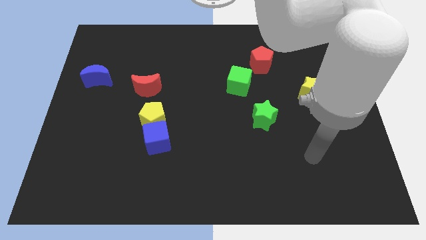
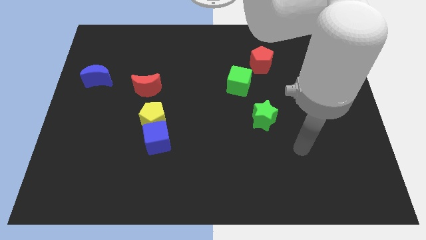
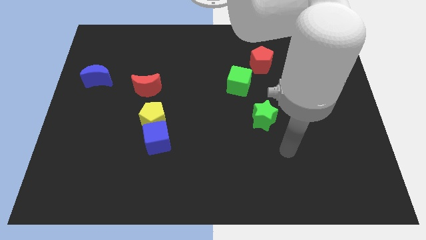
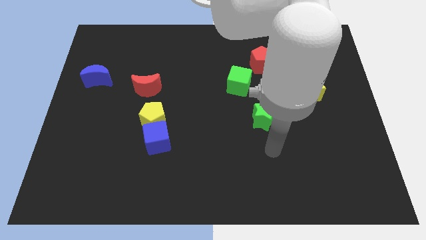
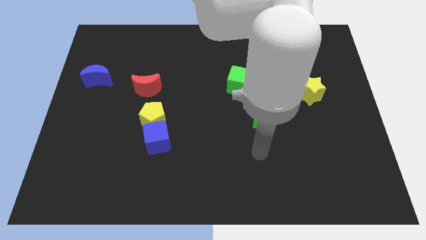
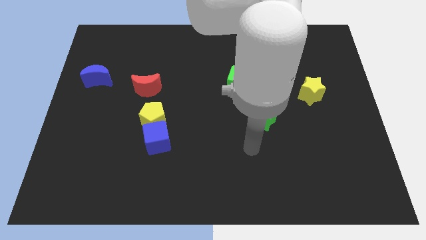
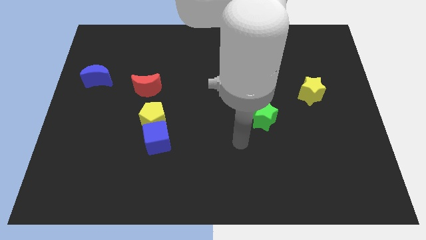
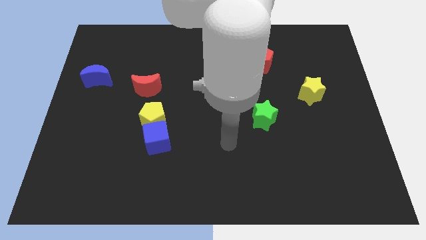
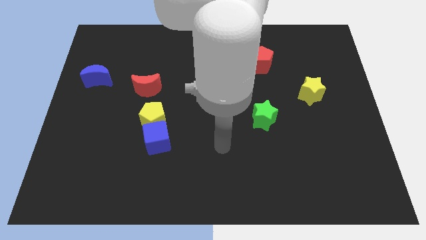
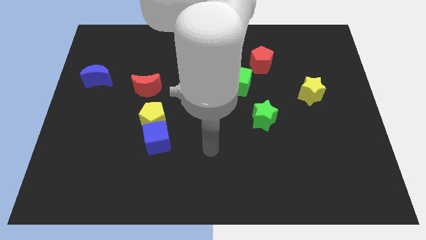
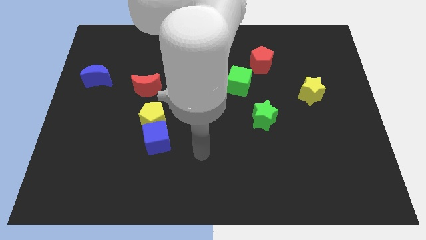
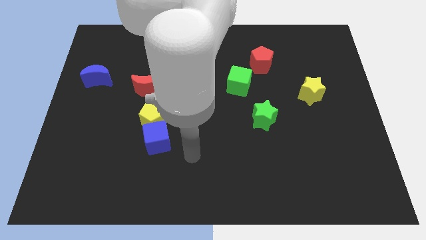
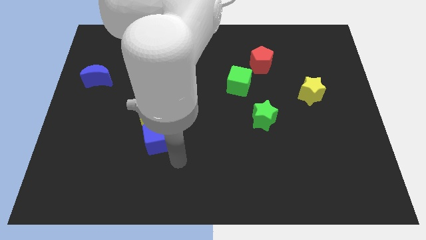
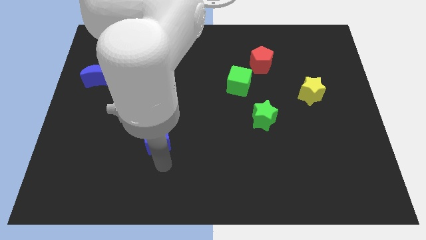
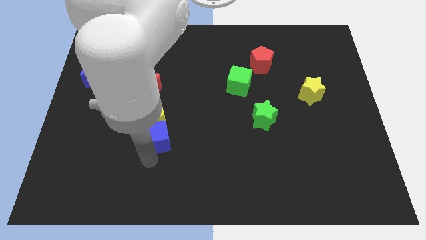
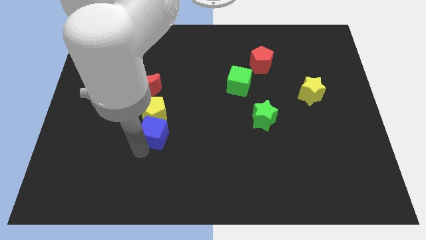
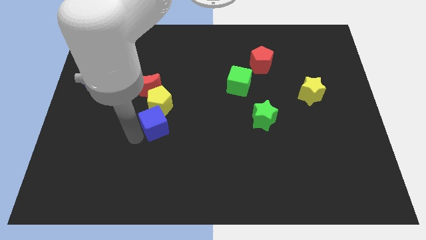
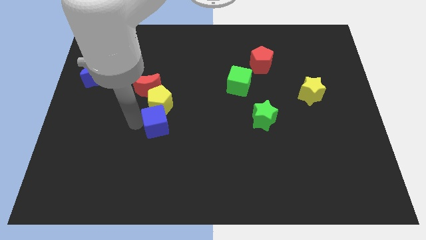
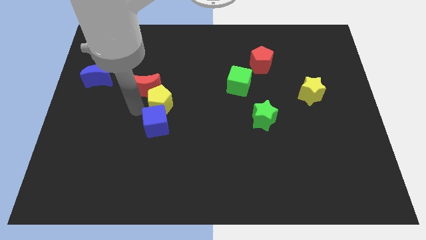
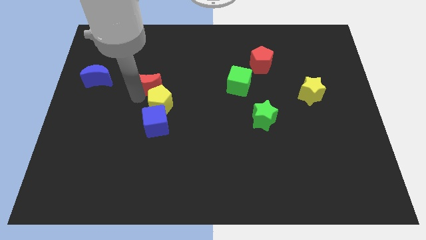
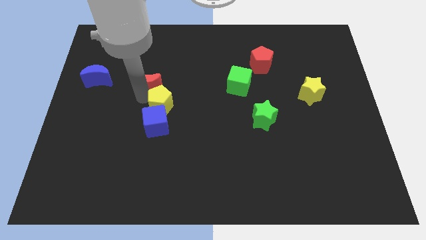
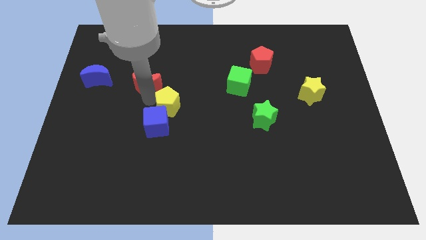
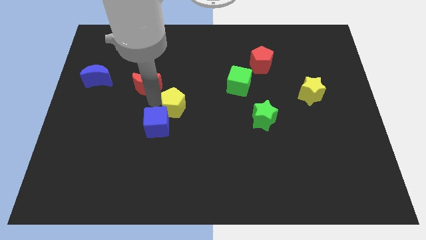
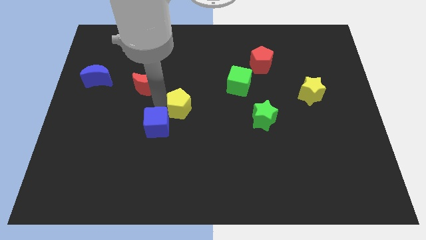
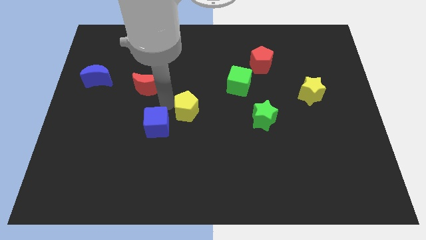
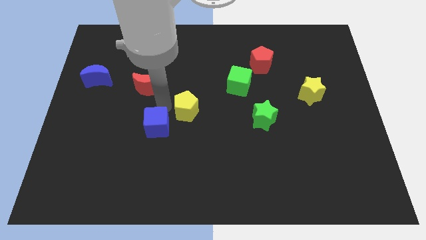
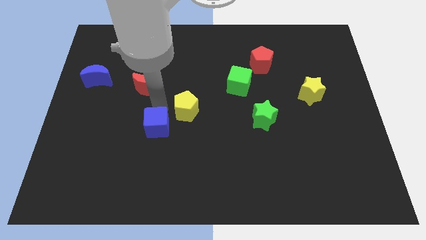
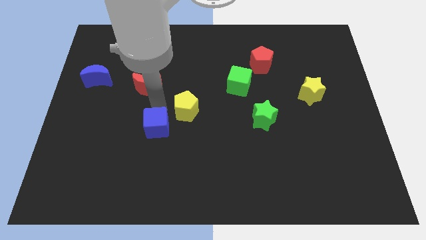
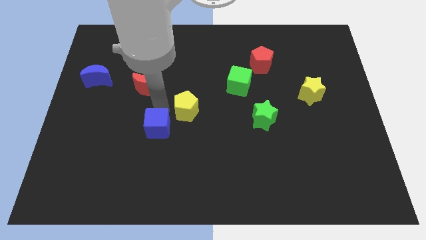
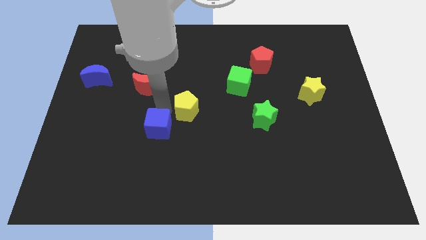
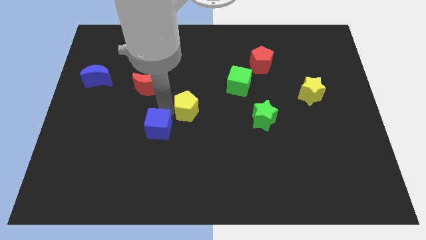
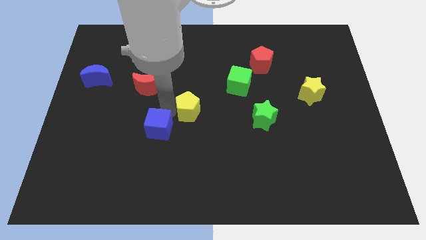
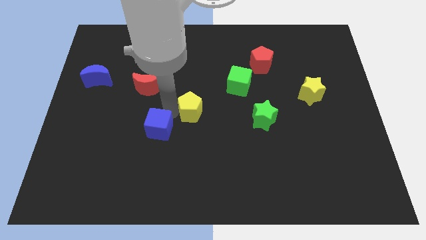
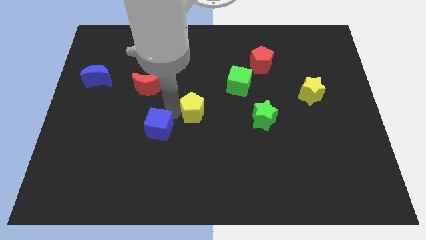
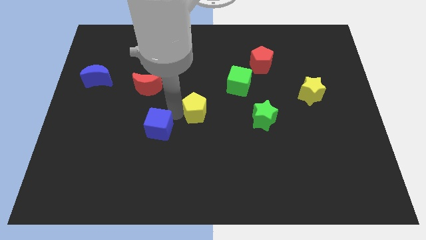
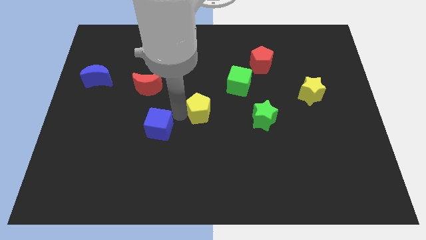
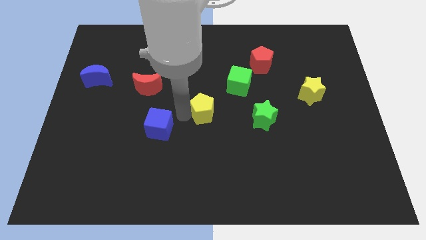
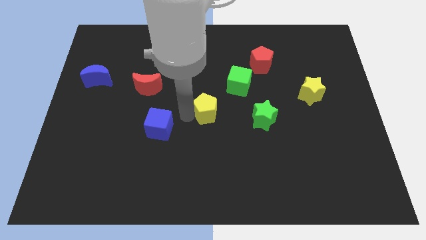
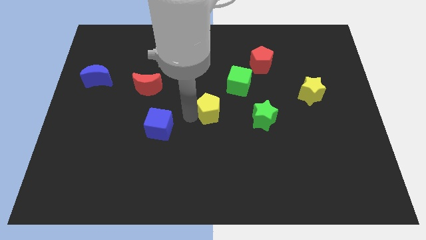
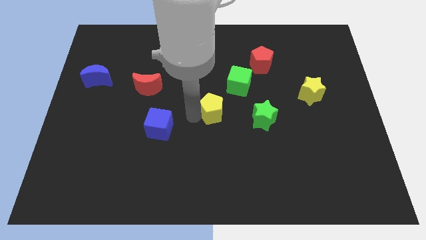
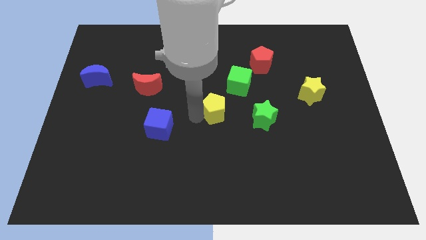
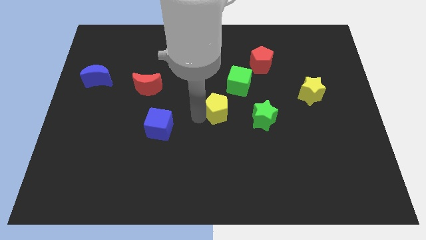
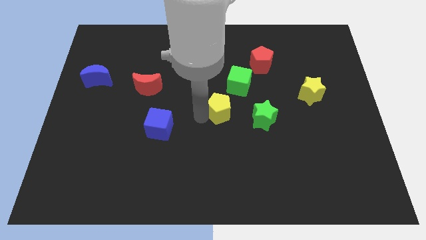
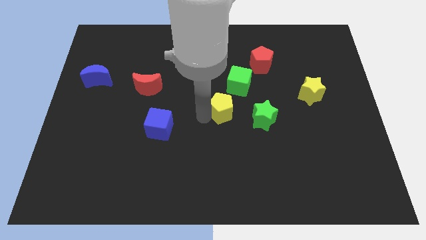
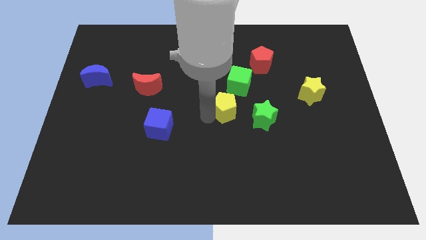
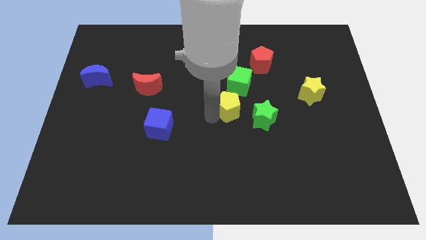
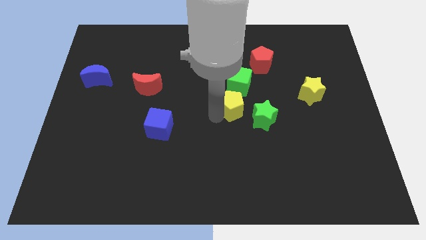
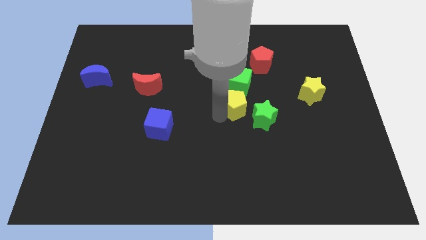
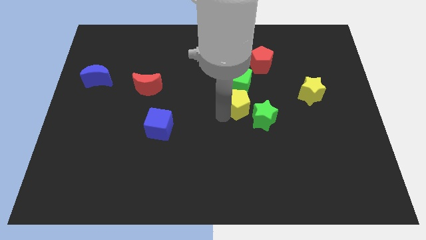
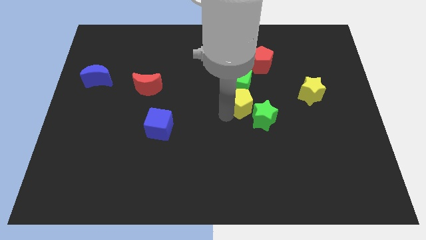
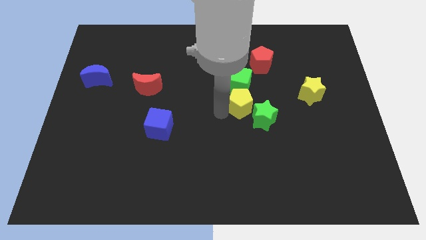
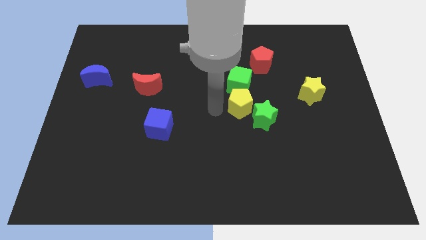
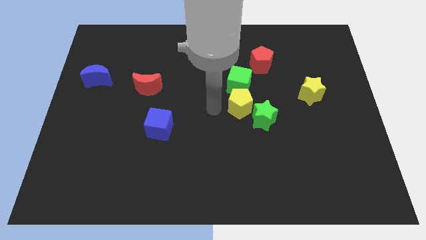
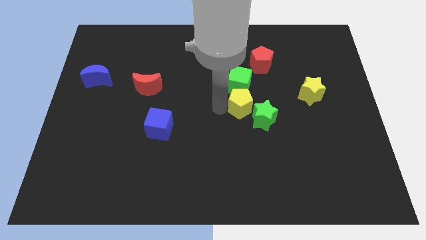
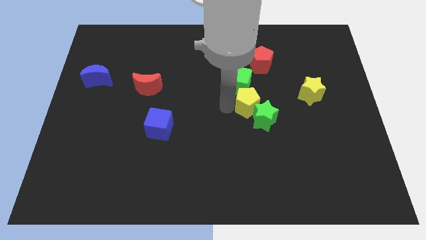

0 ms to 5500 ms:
move the yellow pentagon right

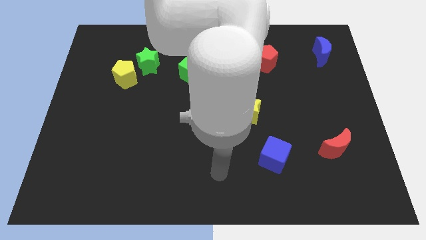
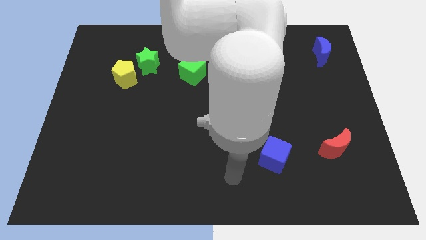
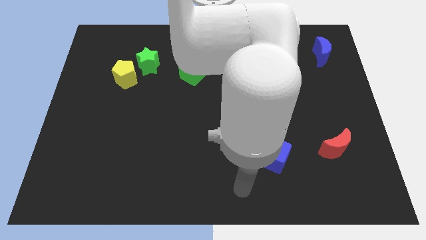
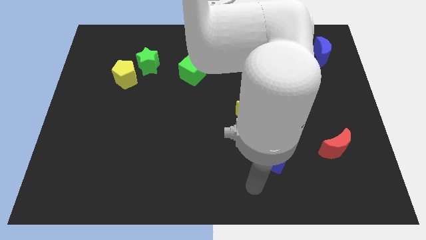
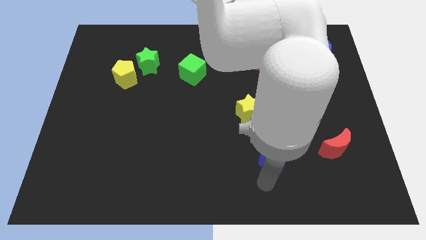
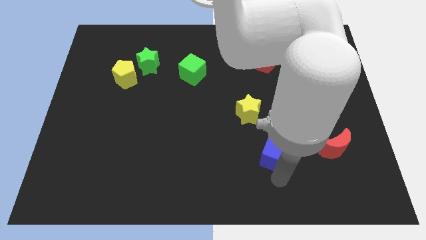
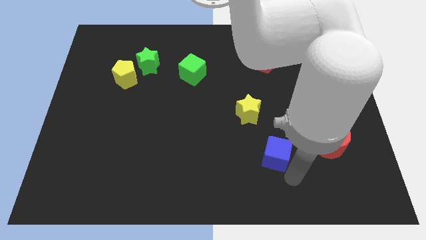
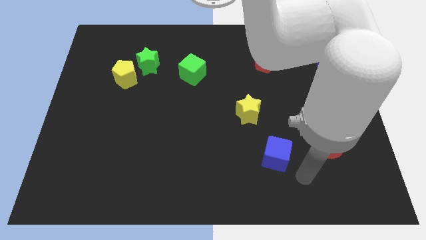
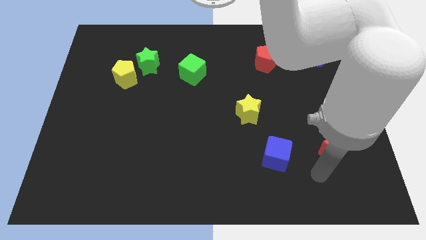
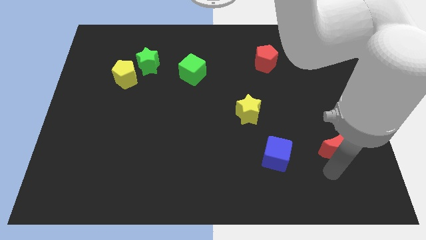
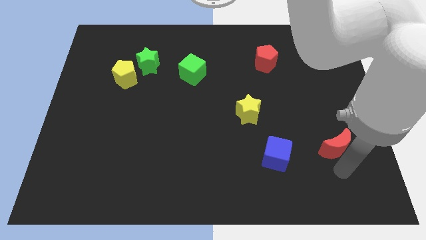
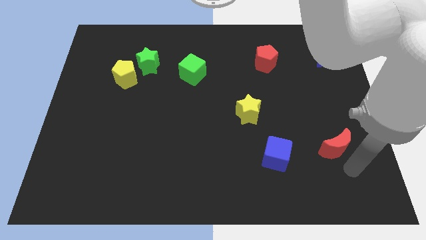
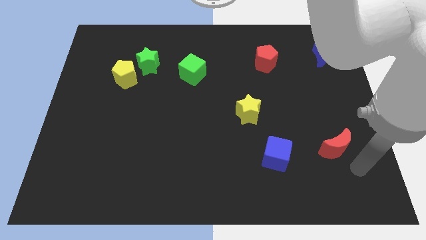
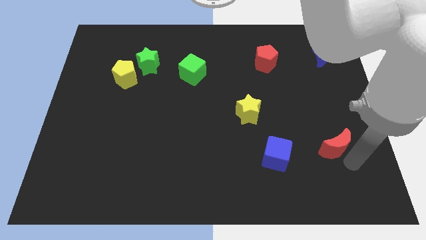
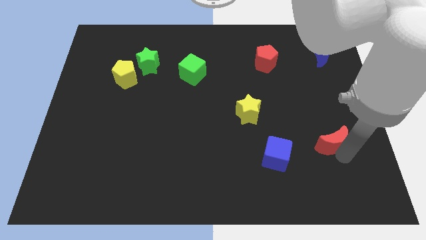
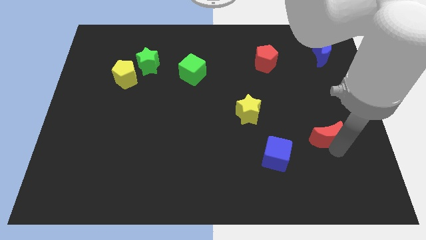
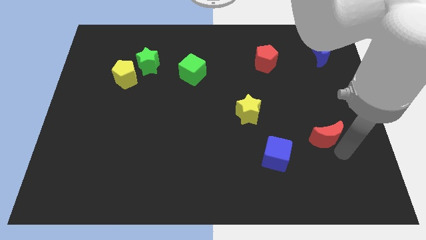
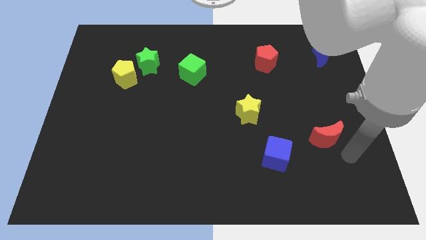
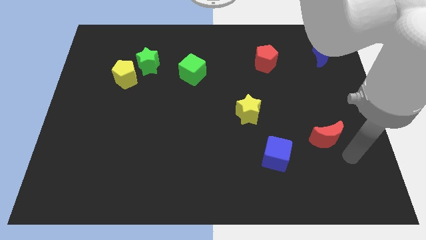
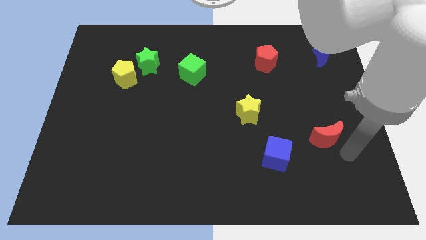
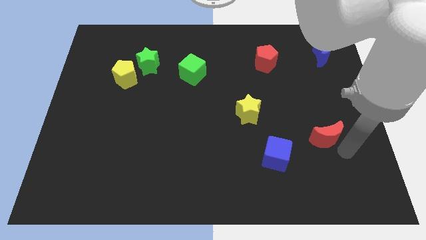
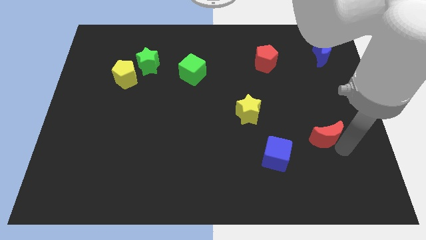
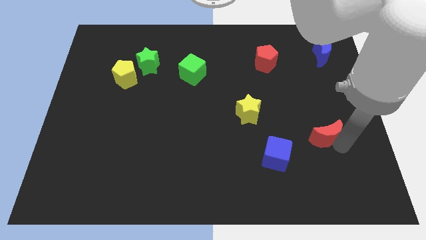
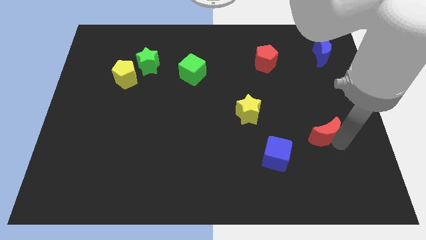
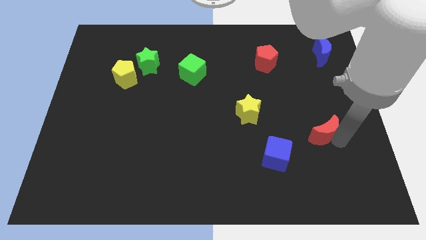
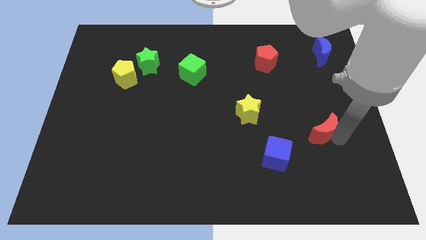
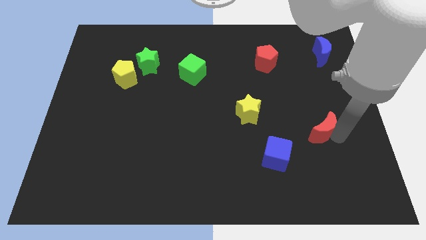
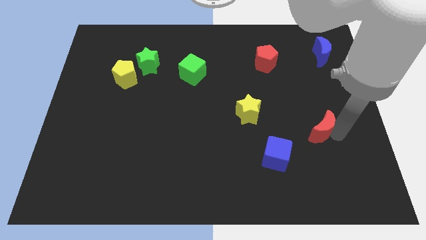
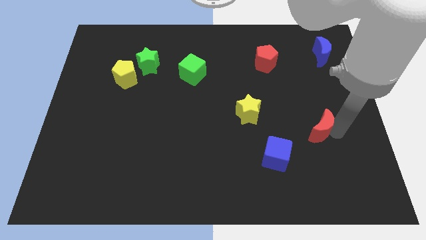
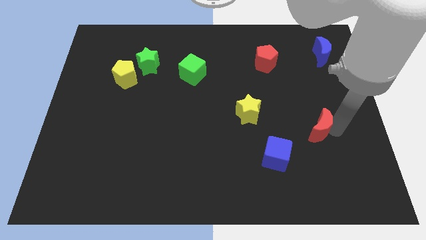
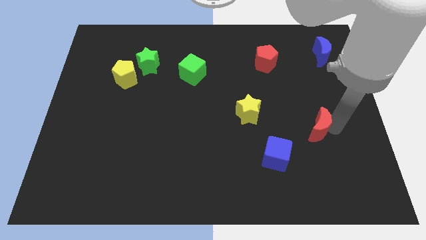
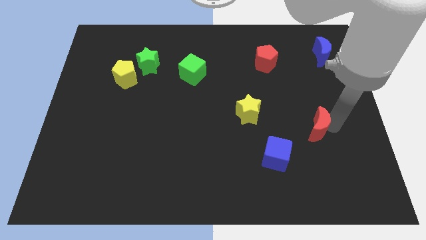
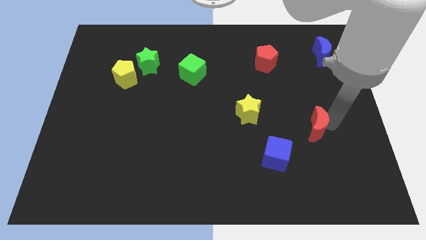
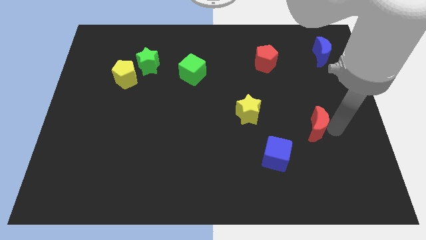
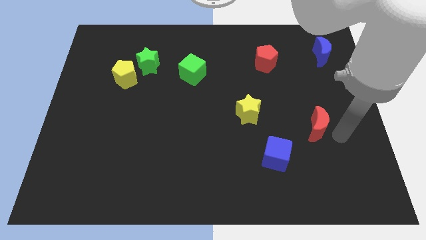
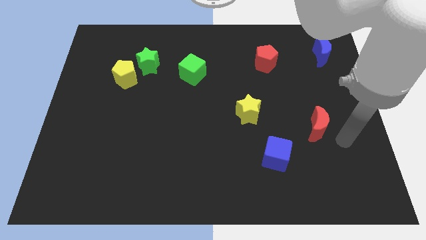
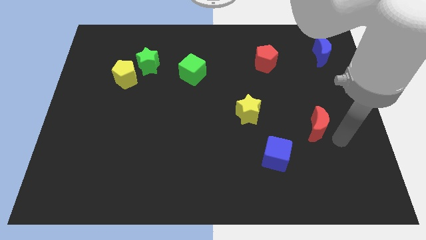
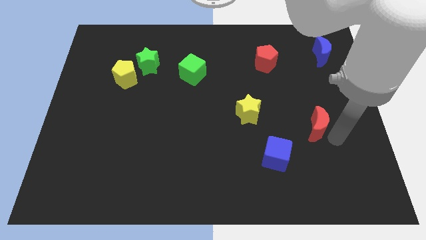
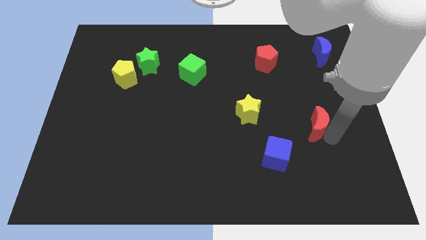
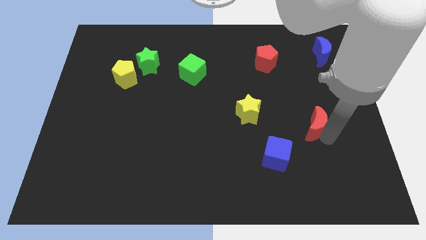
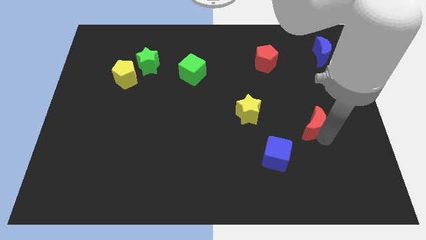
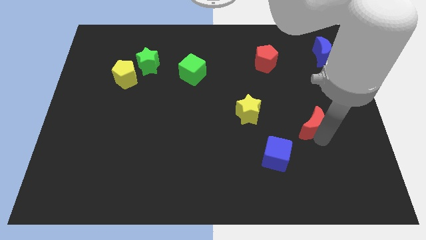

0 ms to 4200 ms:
push the red moon up and left a little
